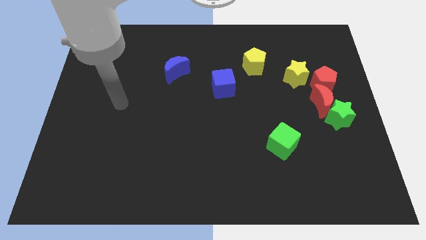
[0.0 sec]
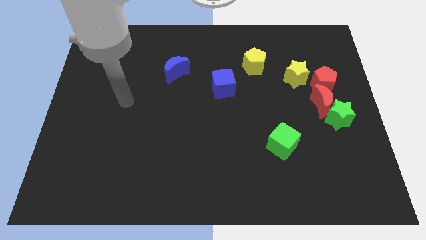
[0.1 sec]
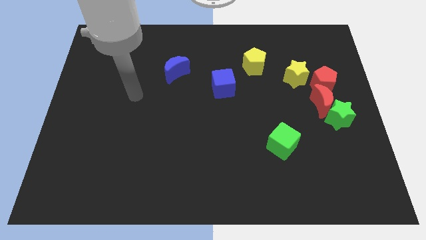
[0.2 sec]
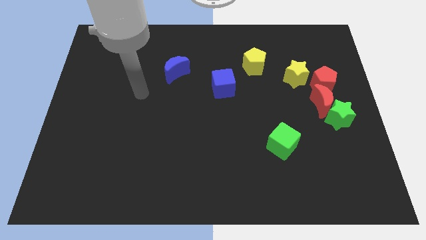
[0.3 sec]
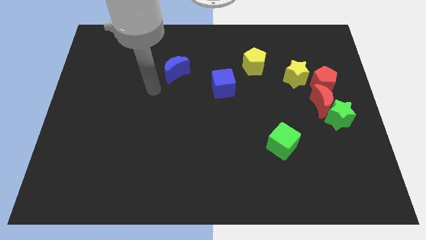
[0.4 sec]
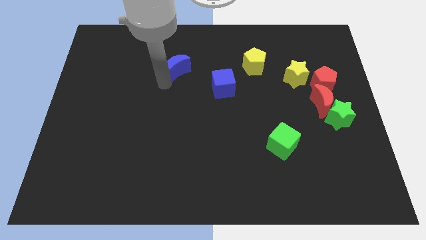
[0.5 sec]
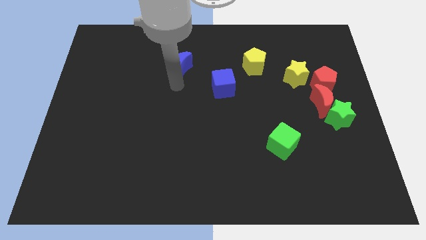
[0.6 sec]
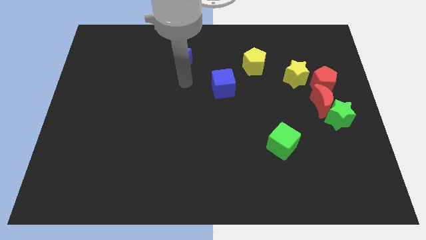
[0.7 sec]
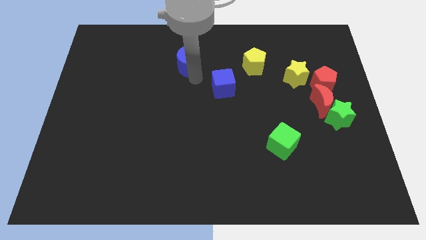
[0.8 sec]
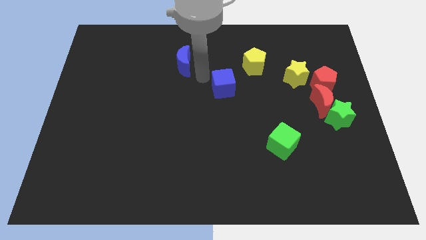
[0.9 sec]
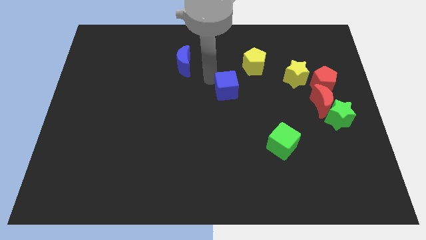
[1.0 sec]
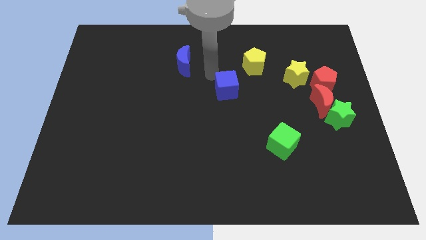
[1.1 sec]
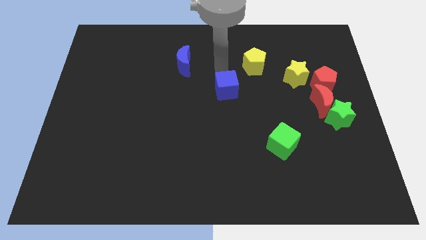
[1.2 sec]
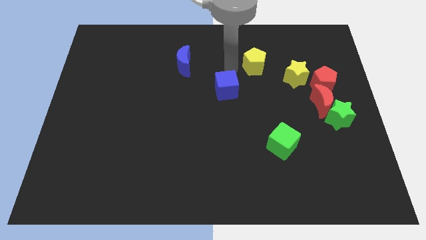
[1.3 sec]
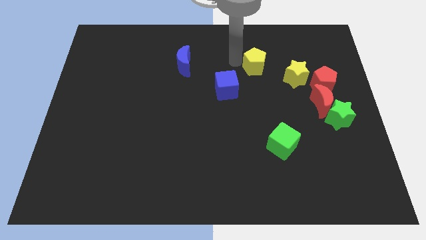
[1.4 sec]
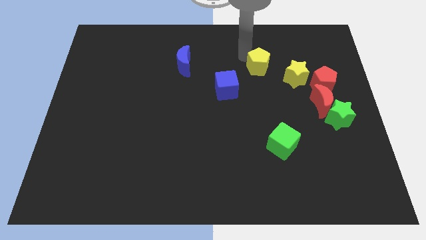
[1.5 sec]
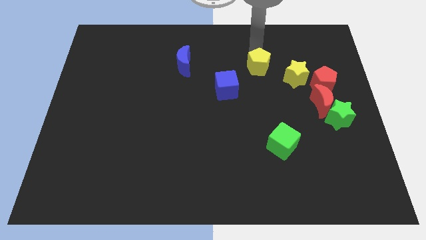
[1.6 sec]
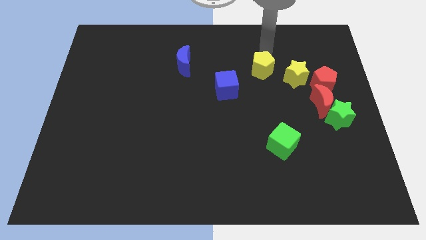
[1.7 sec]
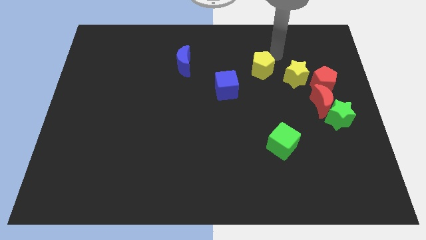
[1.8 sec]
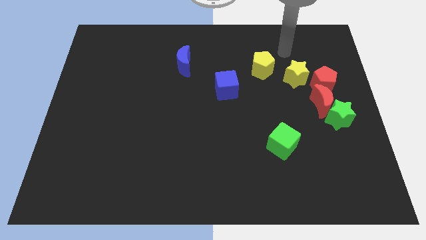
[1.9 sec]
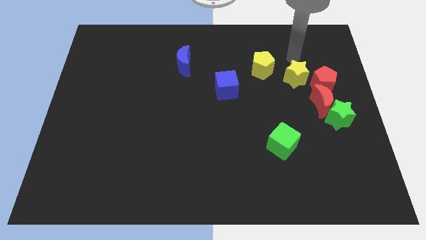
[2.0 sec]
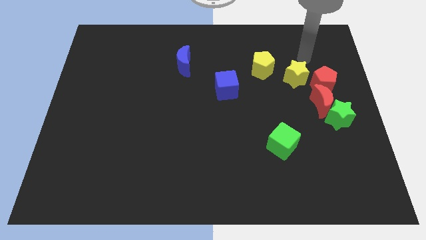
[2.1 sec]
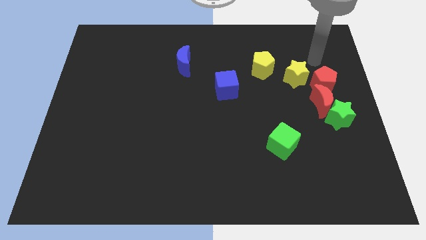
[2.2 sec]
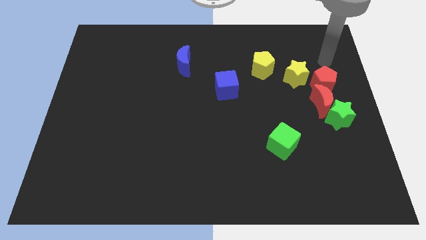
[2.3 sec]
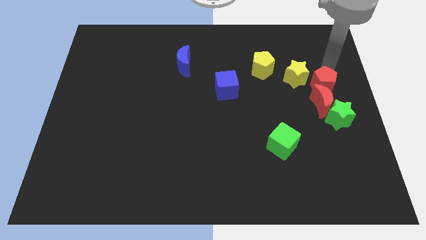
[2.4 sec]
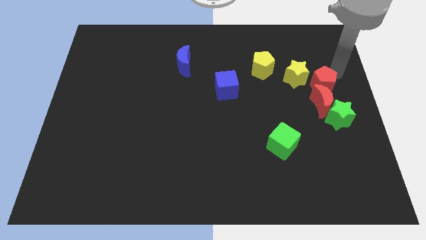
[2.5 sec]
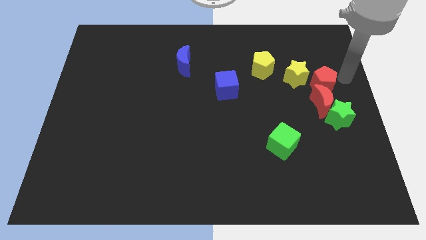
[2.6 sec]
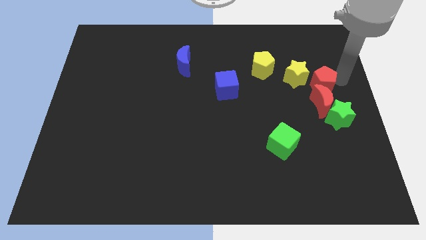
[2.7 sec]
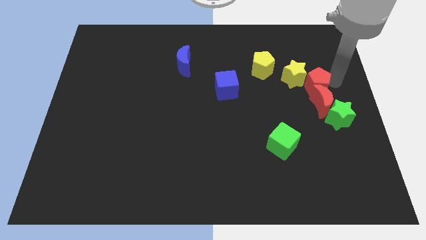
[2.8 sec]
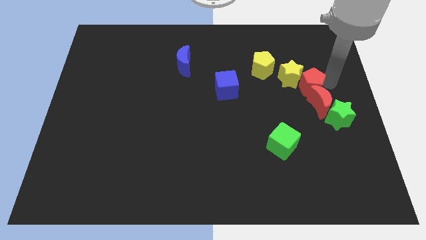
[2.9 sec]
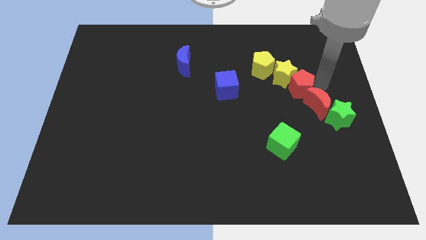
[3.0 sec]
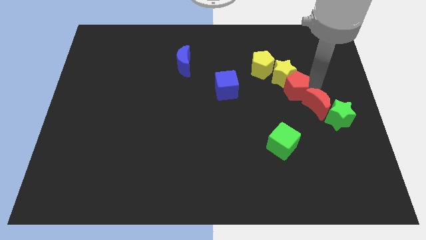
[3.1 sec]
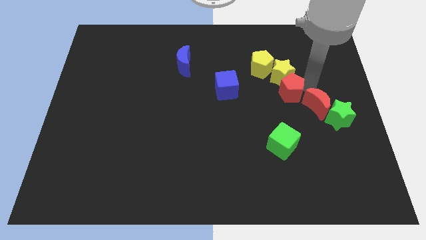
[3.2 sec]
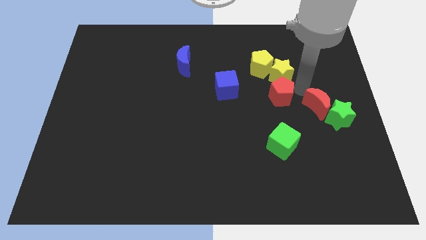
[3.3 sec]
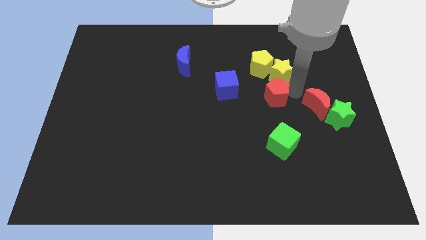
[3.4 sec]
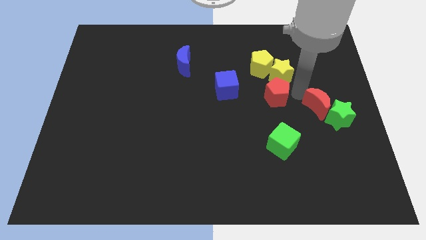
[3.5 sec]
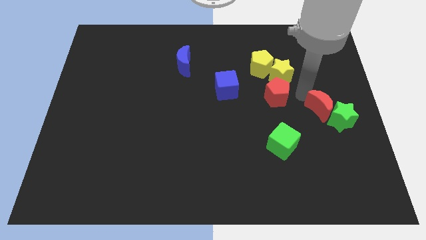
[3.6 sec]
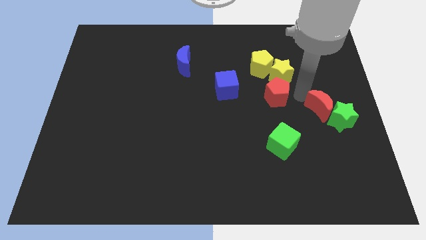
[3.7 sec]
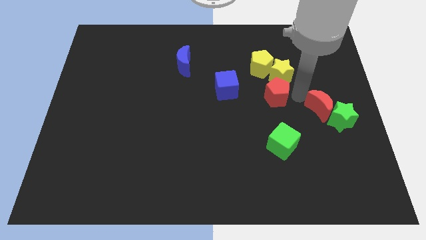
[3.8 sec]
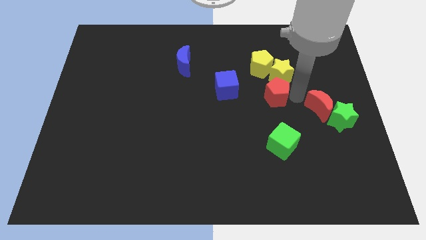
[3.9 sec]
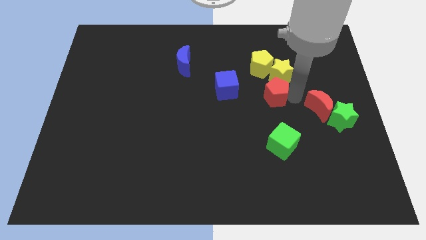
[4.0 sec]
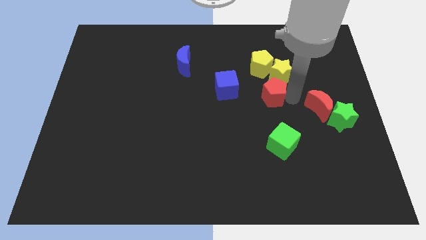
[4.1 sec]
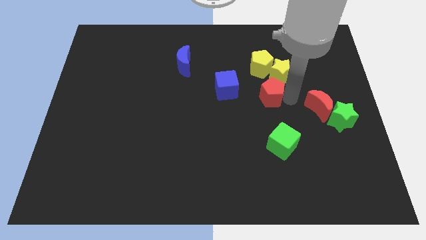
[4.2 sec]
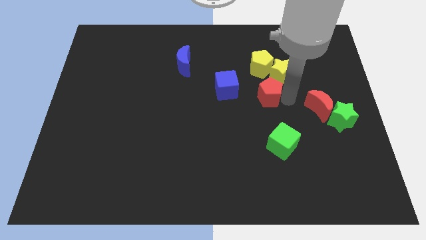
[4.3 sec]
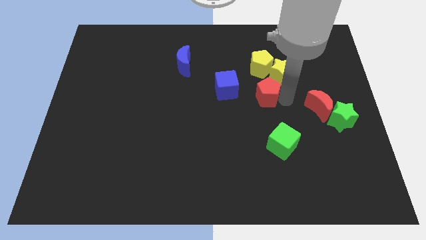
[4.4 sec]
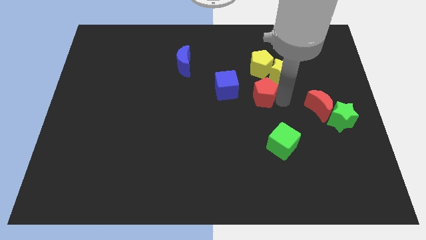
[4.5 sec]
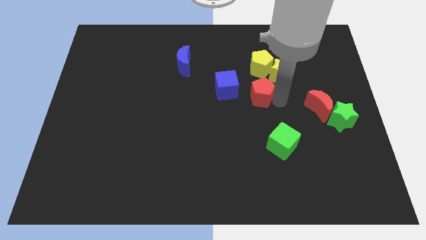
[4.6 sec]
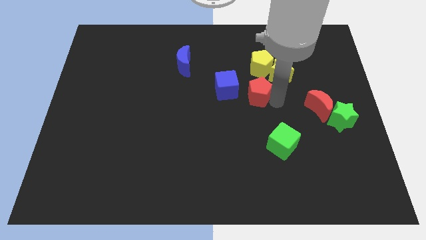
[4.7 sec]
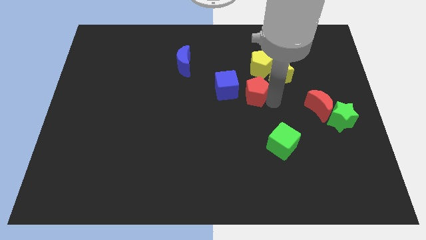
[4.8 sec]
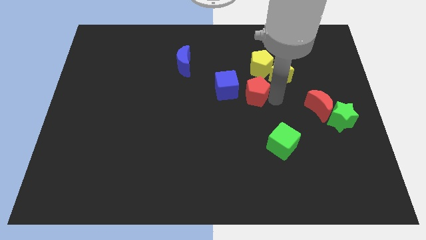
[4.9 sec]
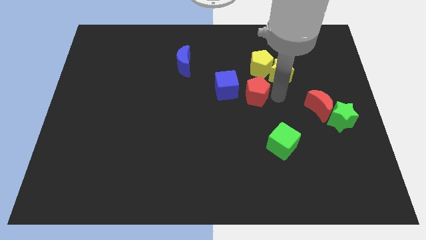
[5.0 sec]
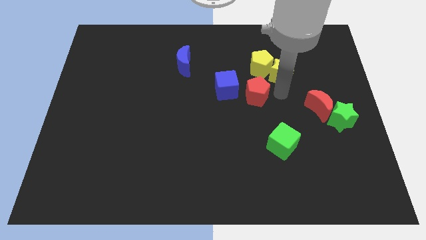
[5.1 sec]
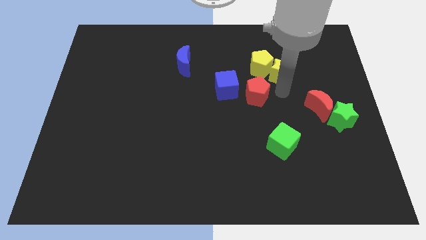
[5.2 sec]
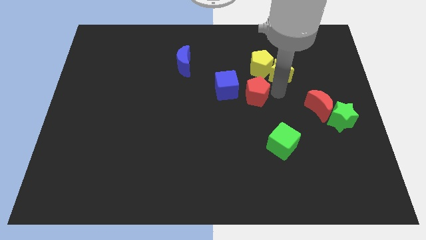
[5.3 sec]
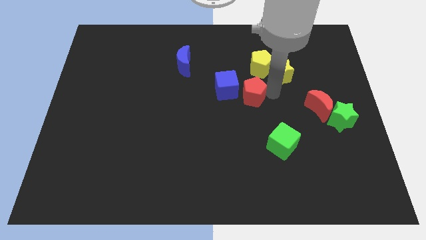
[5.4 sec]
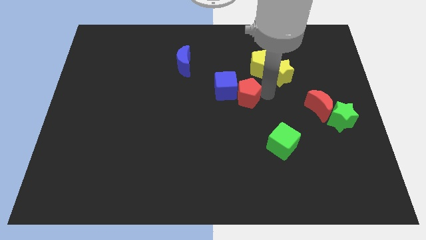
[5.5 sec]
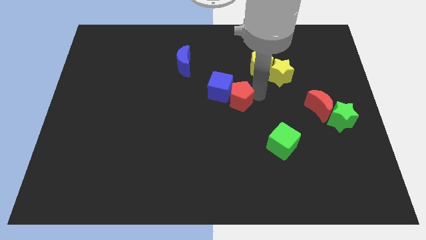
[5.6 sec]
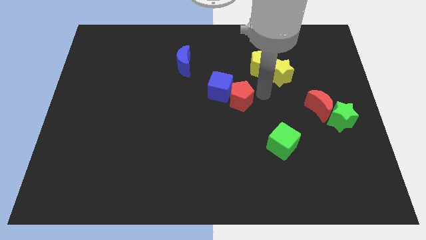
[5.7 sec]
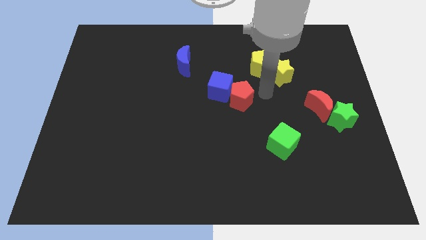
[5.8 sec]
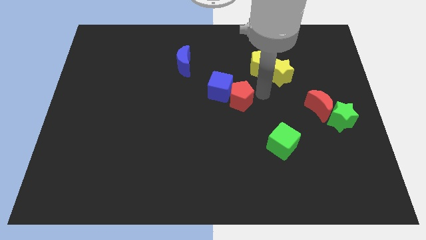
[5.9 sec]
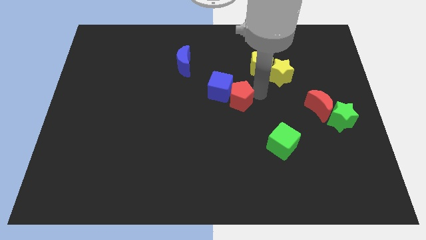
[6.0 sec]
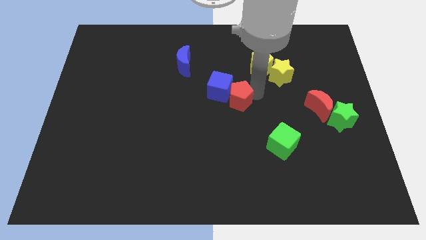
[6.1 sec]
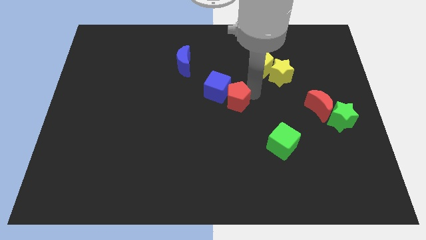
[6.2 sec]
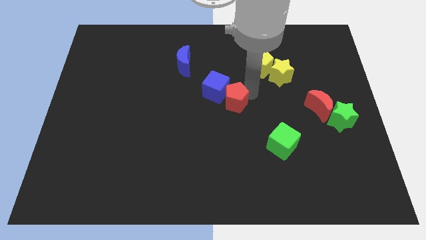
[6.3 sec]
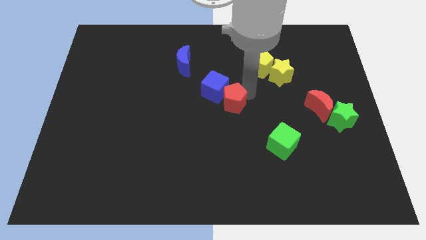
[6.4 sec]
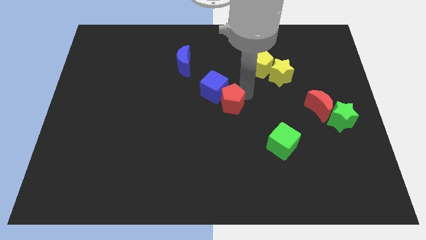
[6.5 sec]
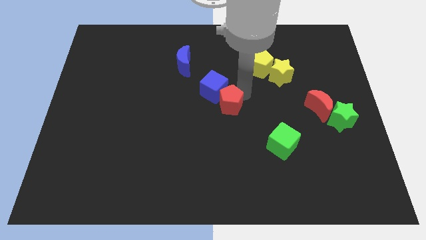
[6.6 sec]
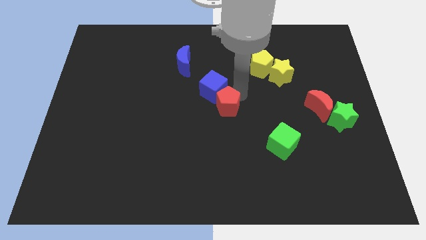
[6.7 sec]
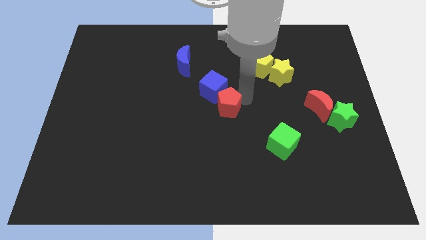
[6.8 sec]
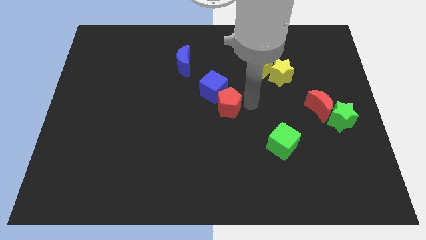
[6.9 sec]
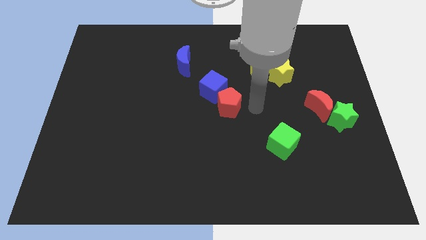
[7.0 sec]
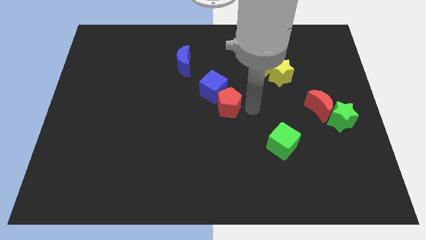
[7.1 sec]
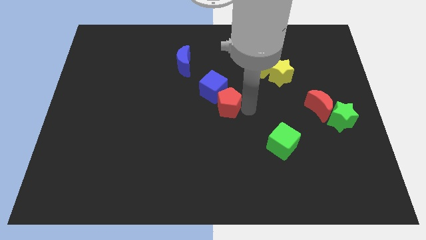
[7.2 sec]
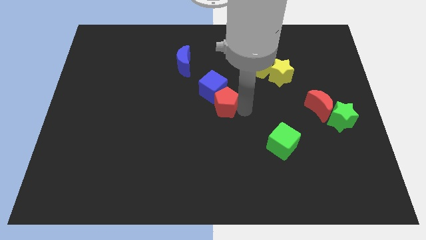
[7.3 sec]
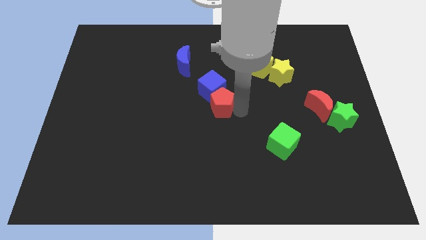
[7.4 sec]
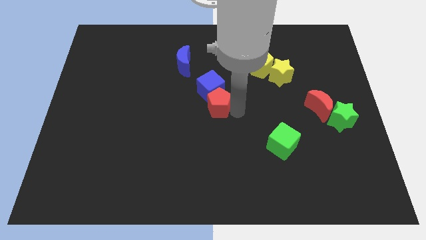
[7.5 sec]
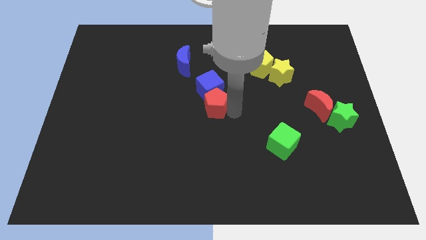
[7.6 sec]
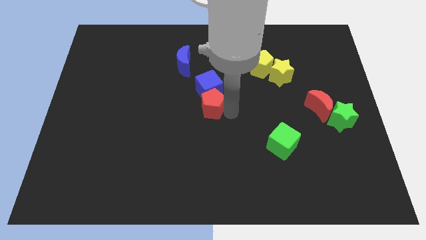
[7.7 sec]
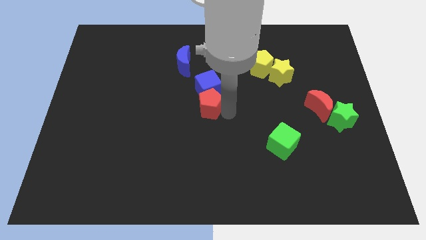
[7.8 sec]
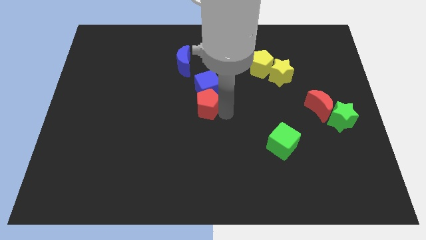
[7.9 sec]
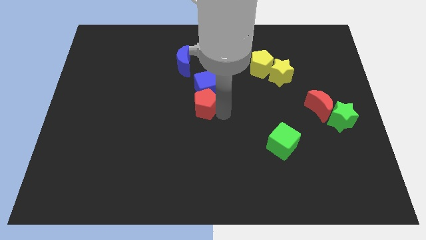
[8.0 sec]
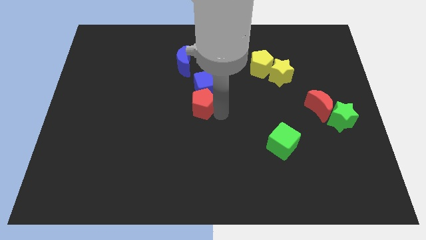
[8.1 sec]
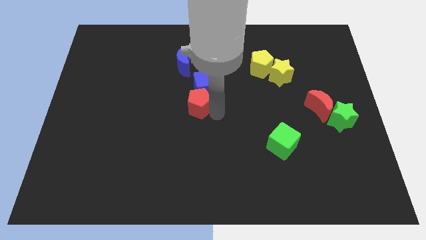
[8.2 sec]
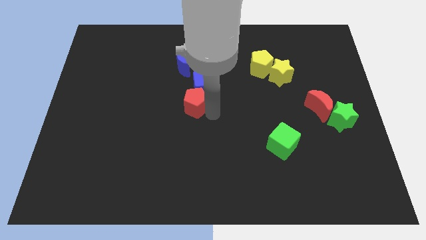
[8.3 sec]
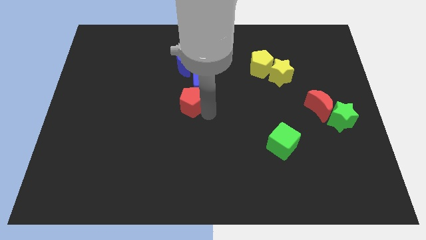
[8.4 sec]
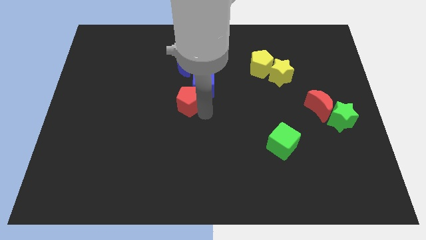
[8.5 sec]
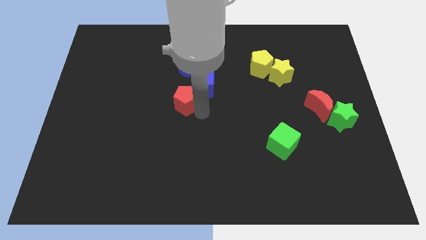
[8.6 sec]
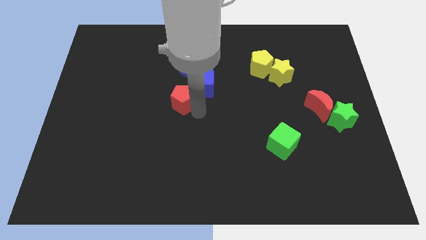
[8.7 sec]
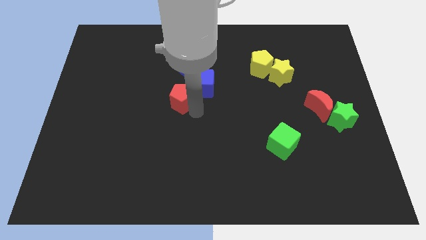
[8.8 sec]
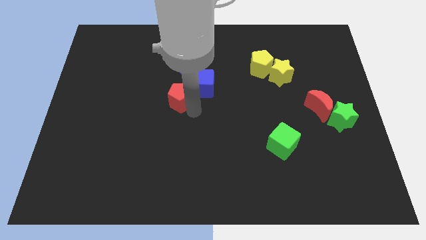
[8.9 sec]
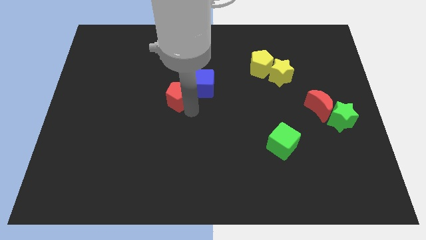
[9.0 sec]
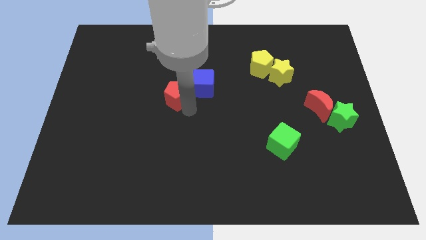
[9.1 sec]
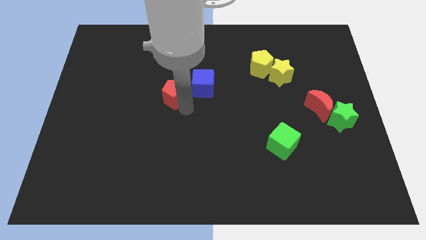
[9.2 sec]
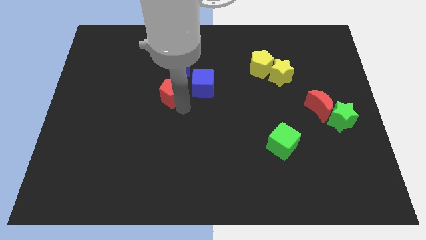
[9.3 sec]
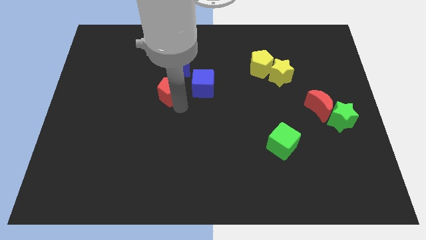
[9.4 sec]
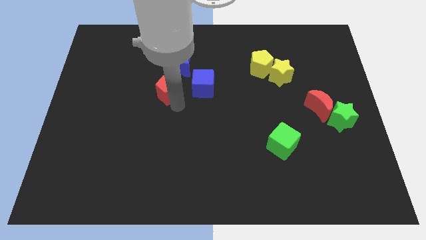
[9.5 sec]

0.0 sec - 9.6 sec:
slide the red pentagon to the bottom left side of the blue moon
